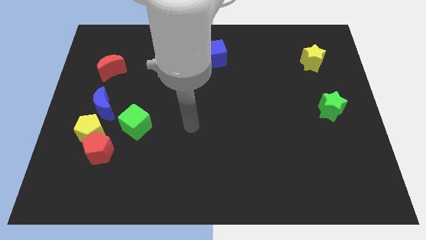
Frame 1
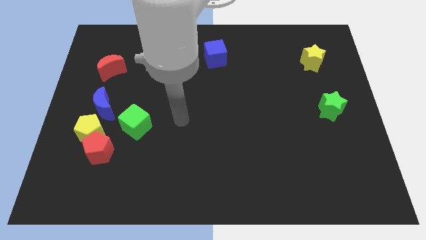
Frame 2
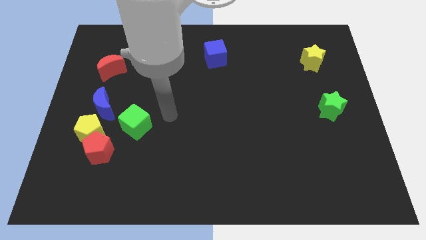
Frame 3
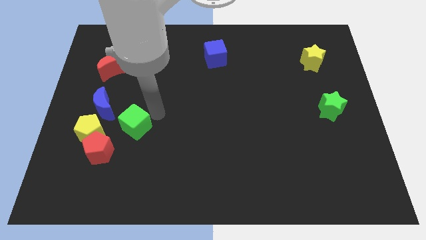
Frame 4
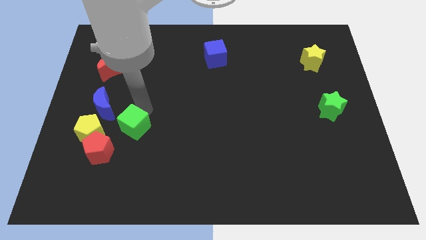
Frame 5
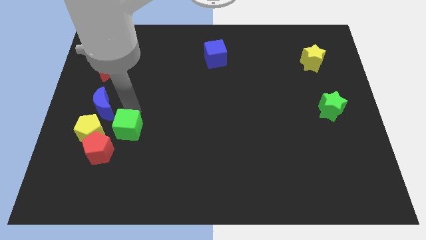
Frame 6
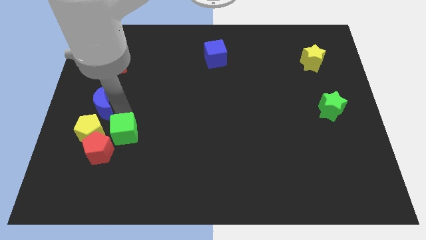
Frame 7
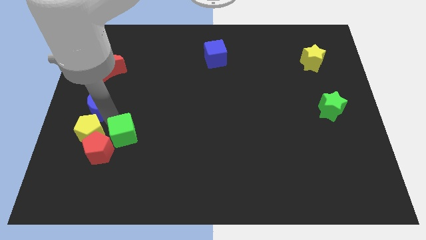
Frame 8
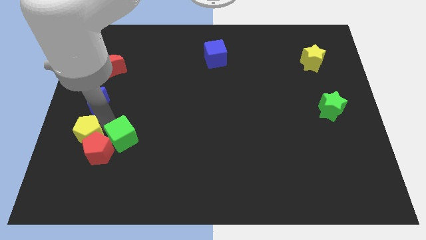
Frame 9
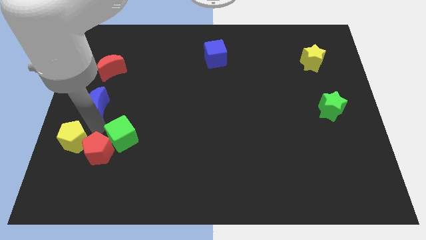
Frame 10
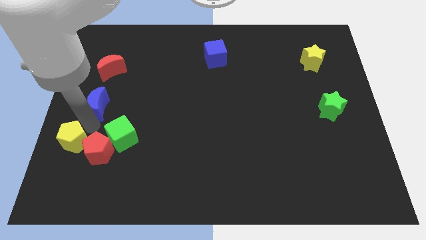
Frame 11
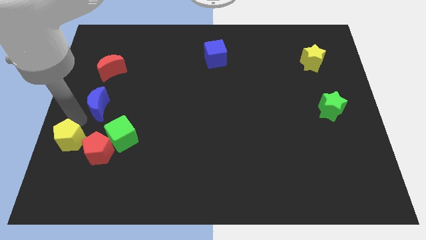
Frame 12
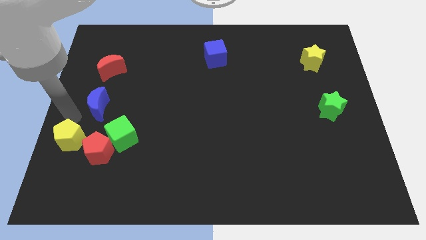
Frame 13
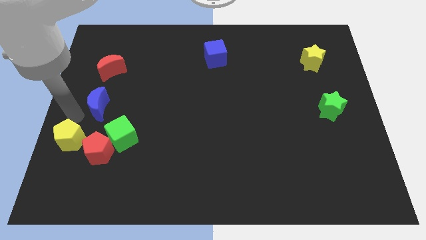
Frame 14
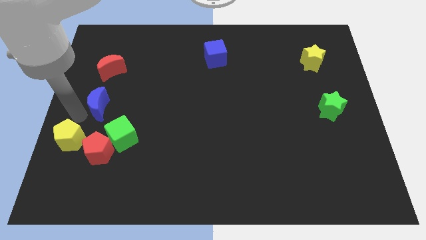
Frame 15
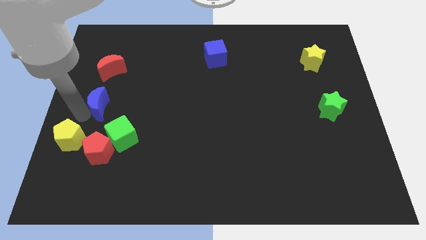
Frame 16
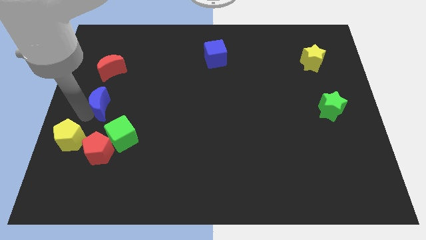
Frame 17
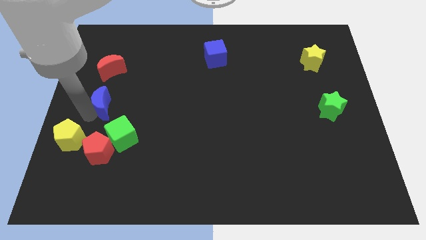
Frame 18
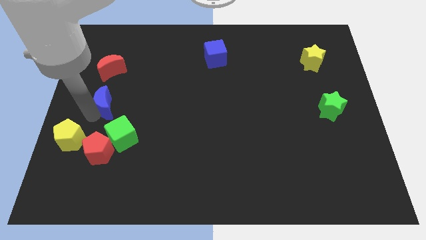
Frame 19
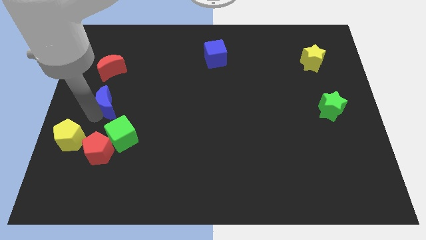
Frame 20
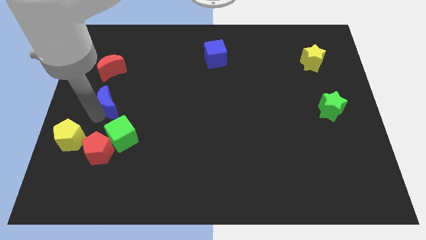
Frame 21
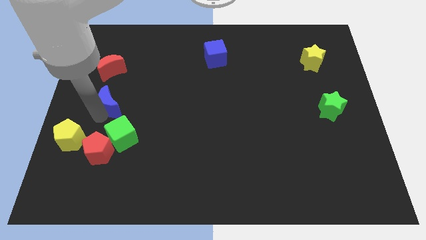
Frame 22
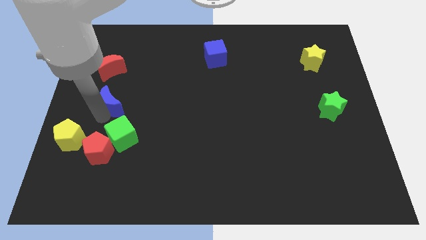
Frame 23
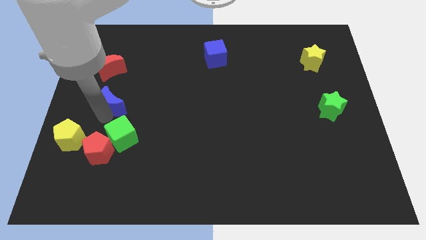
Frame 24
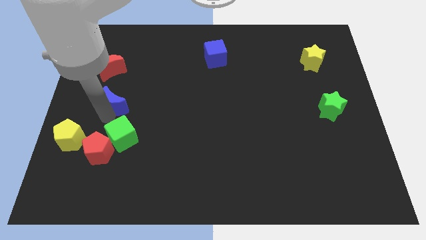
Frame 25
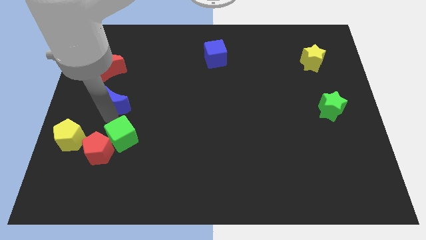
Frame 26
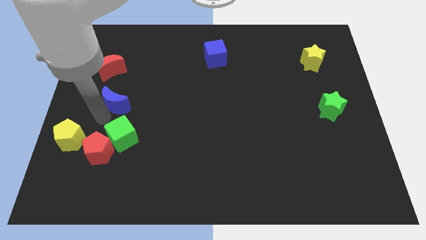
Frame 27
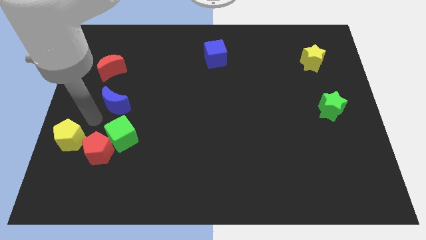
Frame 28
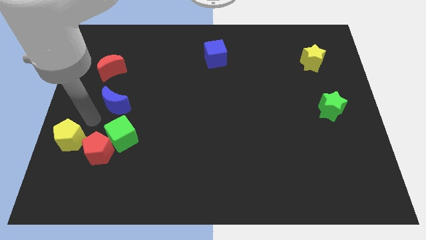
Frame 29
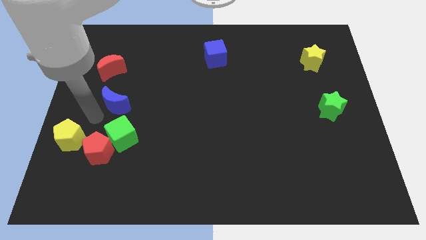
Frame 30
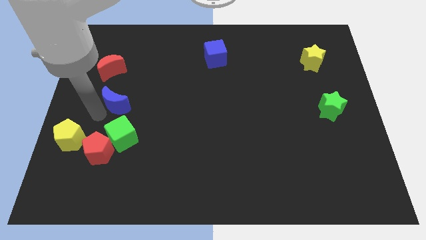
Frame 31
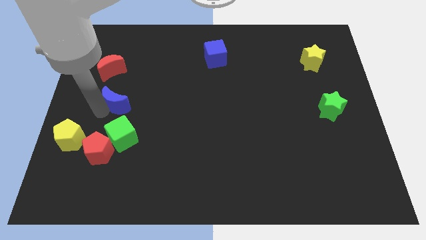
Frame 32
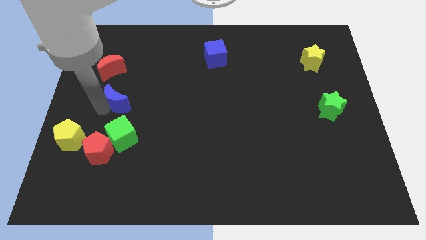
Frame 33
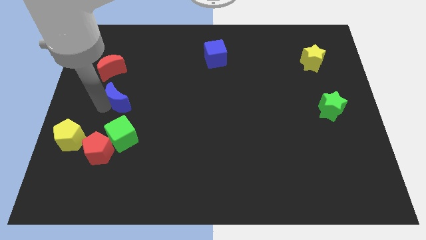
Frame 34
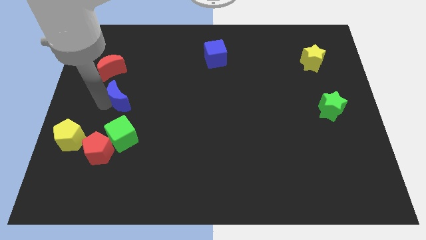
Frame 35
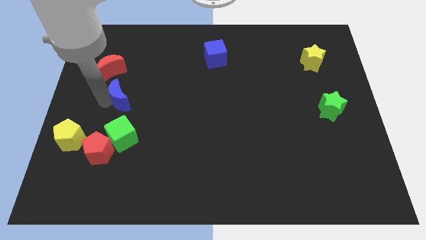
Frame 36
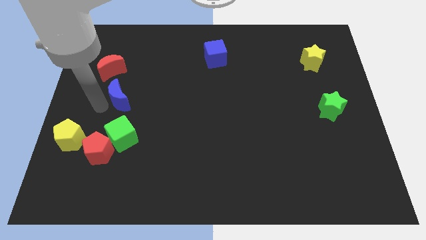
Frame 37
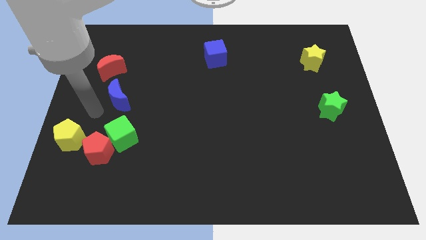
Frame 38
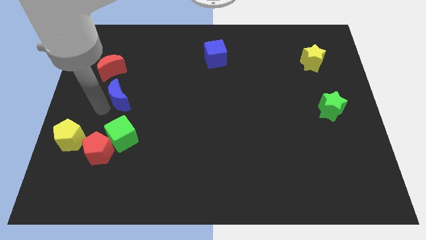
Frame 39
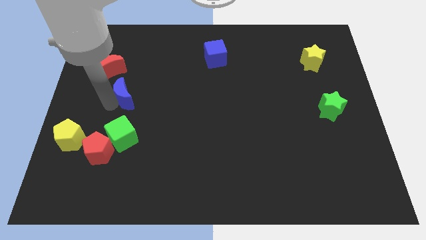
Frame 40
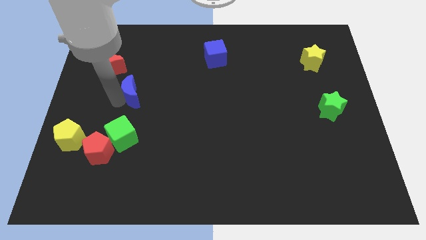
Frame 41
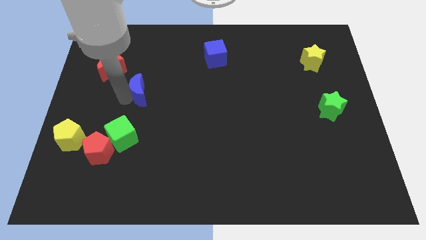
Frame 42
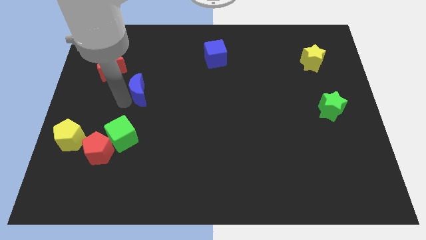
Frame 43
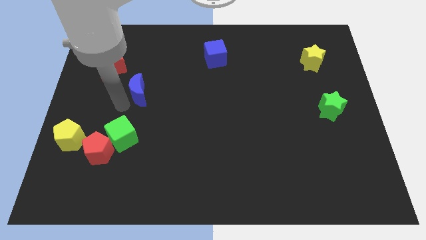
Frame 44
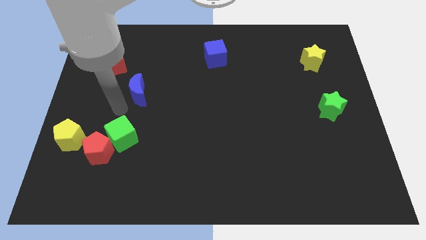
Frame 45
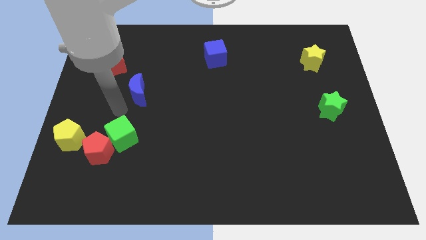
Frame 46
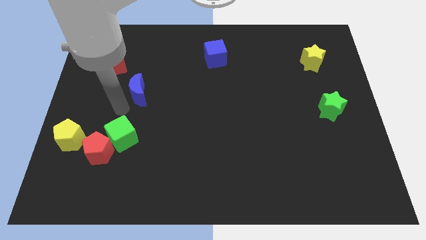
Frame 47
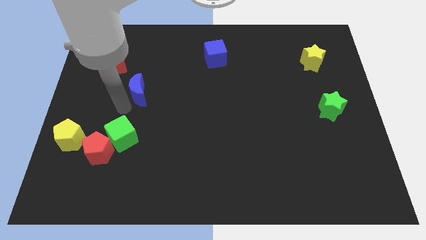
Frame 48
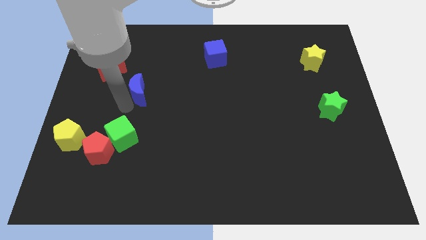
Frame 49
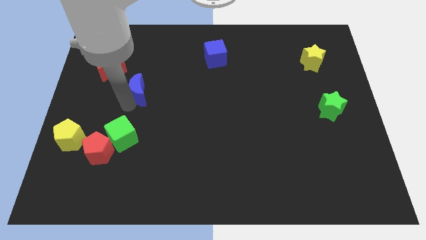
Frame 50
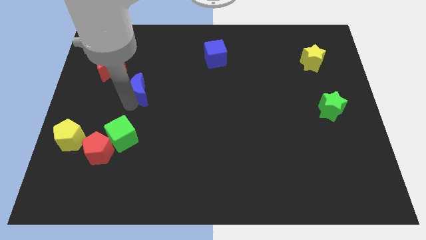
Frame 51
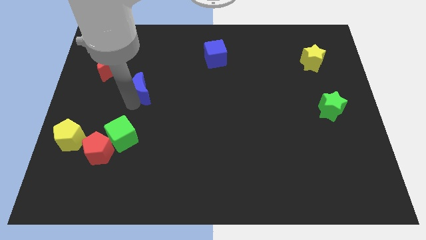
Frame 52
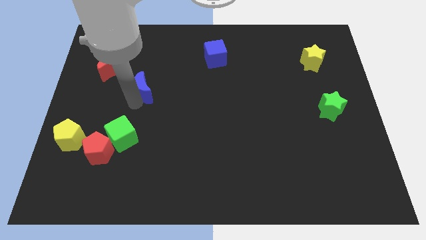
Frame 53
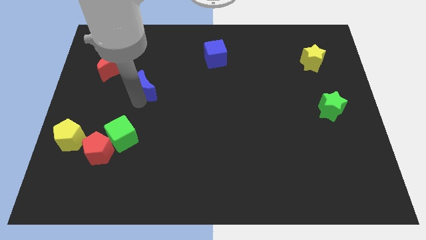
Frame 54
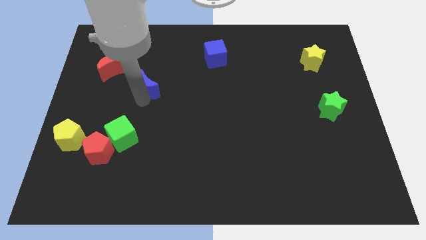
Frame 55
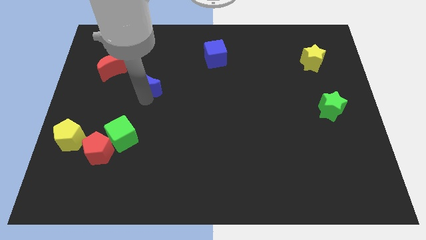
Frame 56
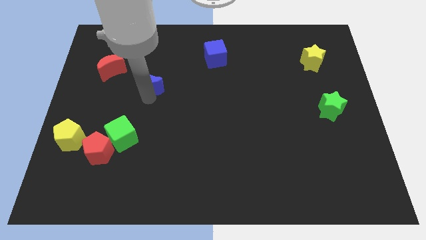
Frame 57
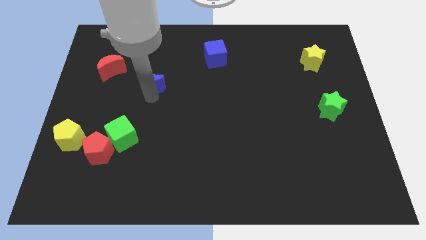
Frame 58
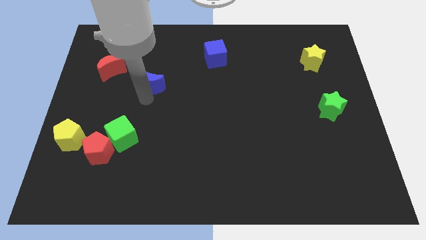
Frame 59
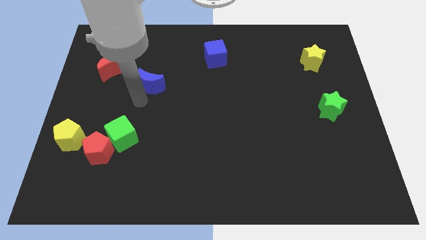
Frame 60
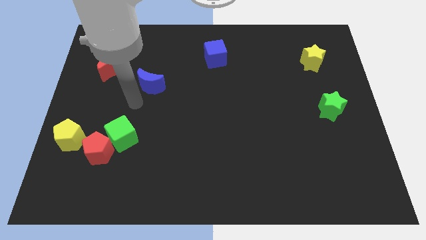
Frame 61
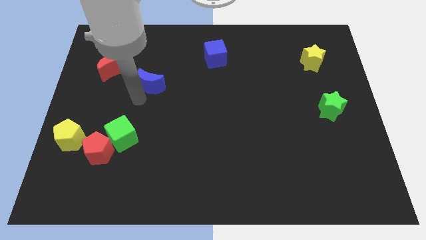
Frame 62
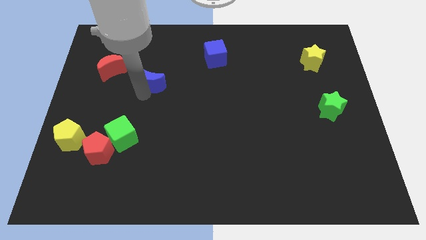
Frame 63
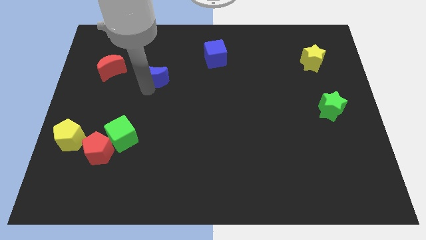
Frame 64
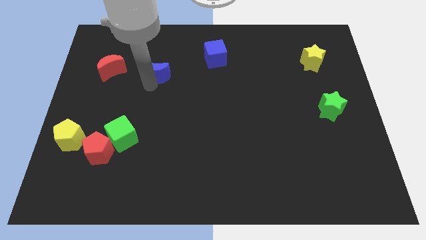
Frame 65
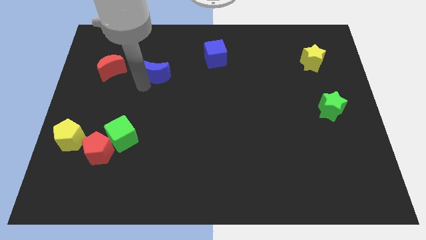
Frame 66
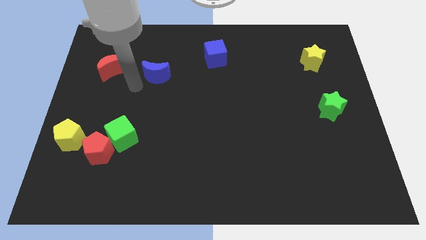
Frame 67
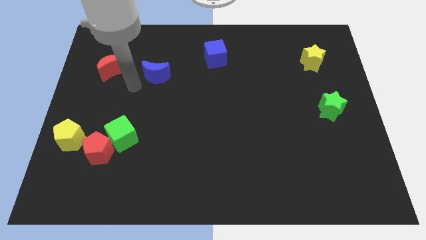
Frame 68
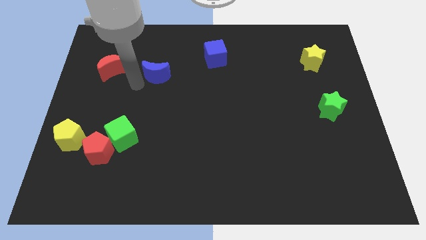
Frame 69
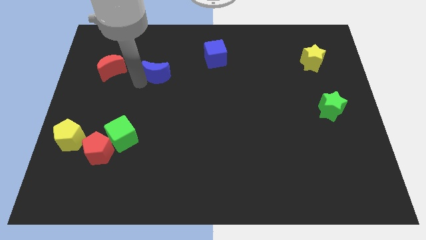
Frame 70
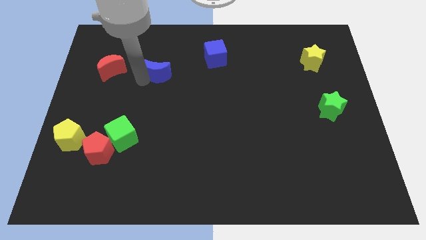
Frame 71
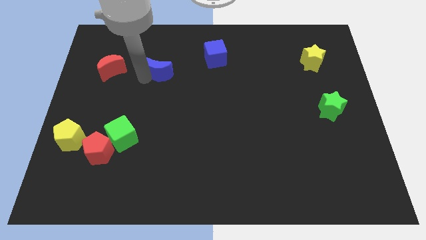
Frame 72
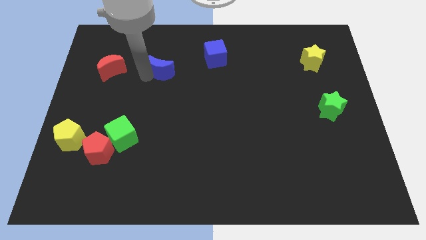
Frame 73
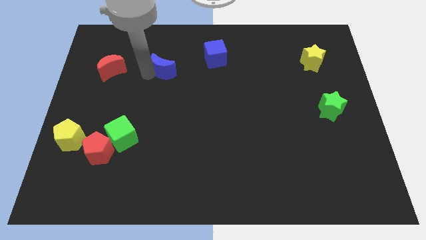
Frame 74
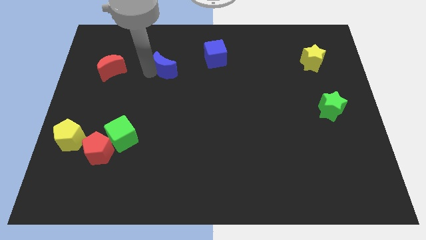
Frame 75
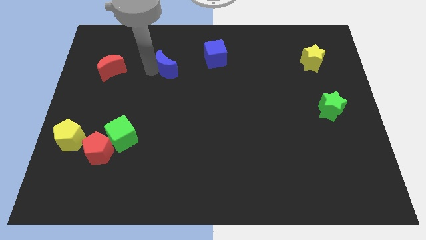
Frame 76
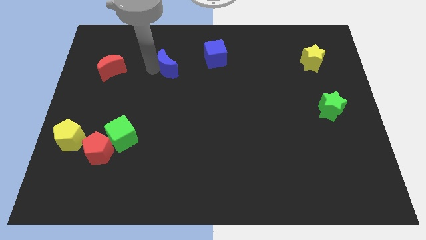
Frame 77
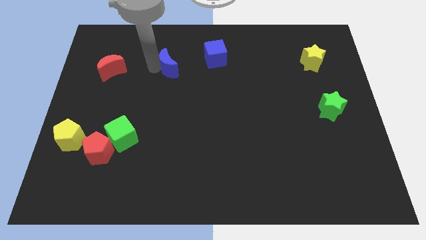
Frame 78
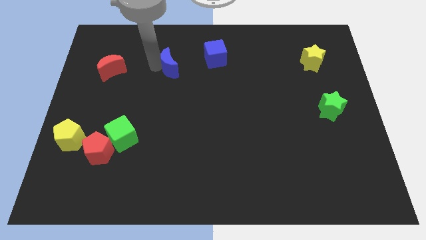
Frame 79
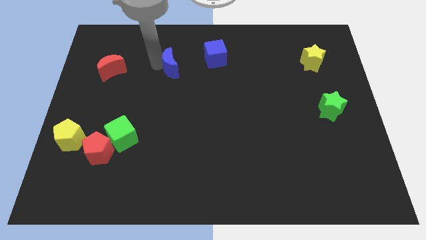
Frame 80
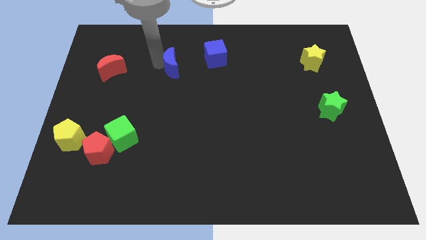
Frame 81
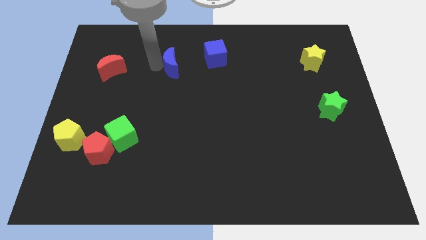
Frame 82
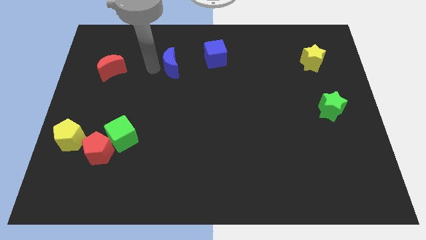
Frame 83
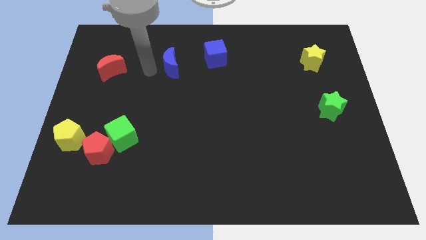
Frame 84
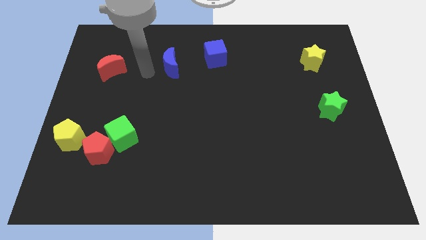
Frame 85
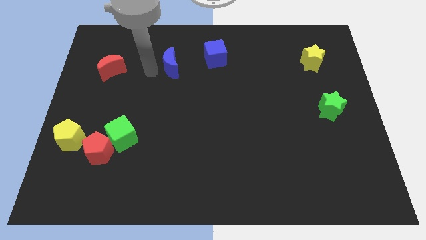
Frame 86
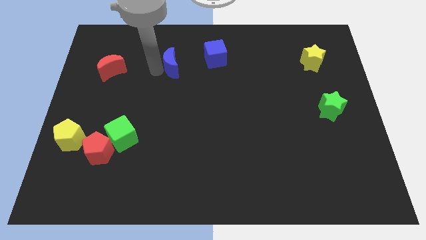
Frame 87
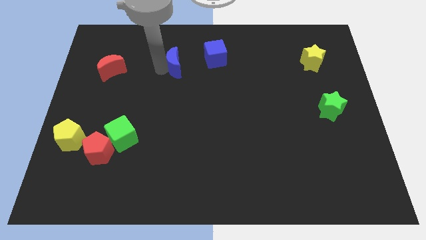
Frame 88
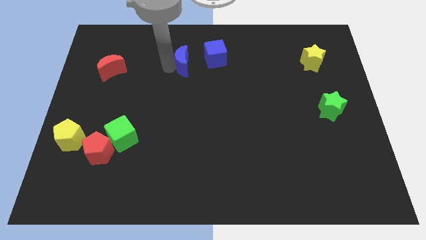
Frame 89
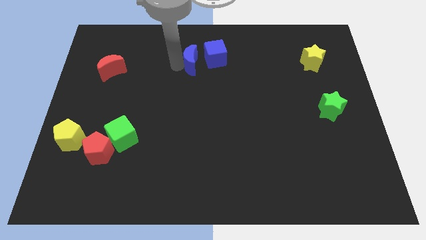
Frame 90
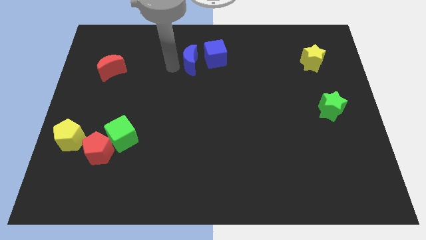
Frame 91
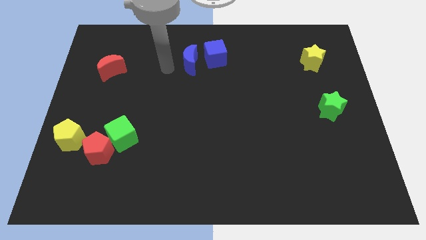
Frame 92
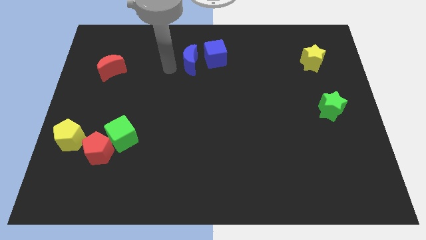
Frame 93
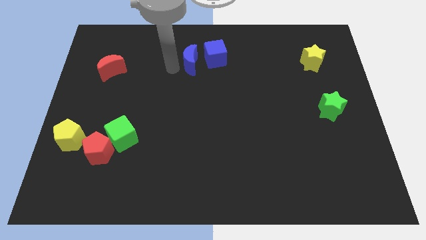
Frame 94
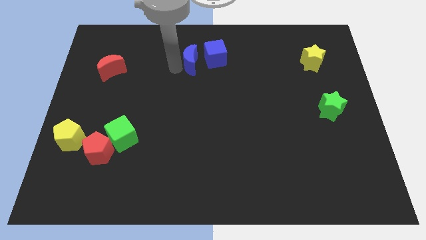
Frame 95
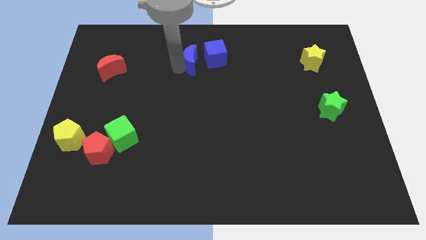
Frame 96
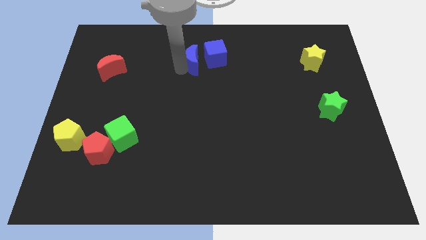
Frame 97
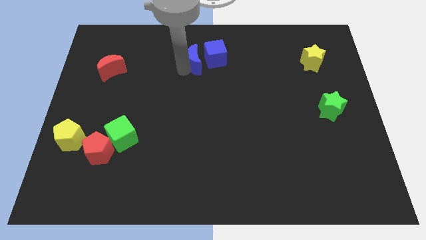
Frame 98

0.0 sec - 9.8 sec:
put the blue moon to the blue cube
